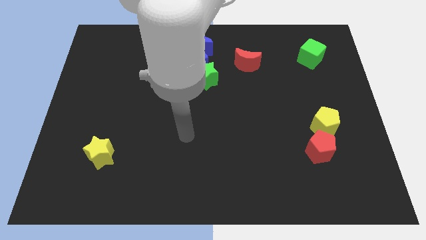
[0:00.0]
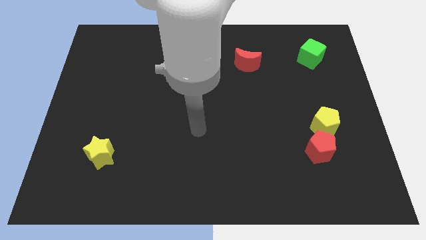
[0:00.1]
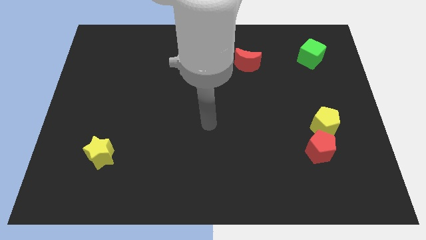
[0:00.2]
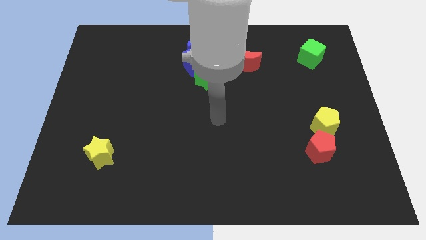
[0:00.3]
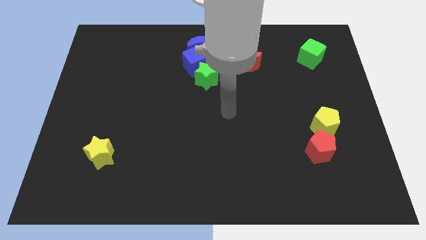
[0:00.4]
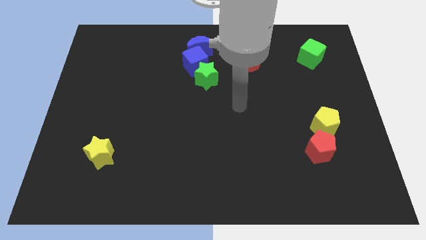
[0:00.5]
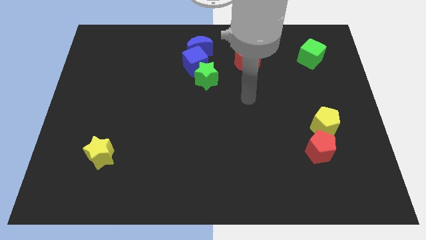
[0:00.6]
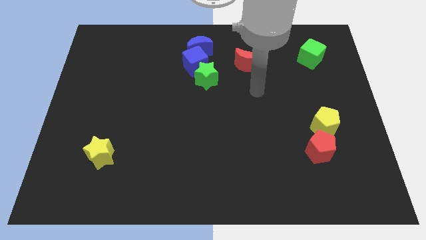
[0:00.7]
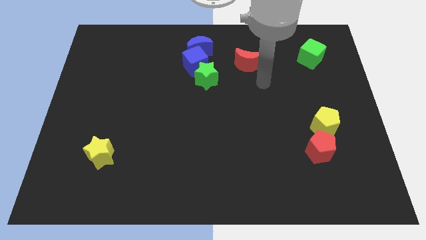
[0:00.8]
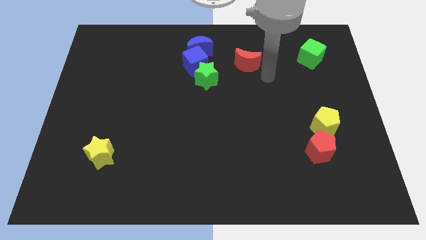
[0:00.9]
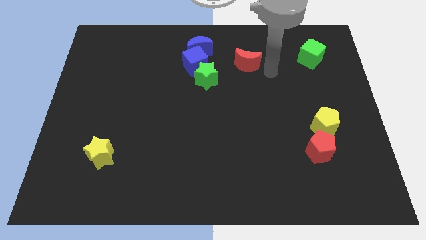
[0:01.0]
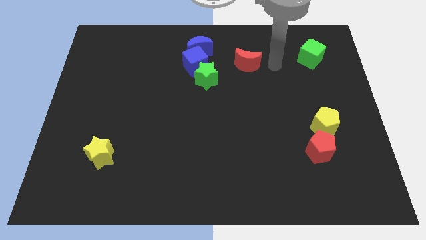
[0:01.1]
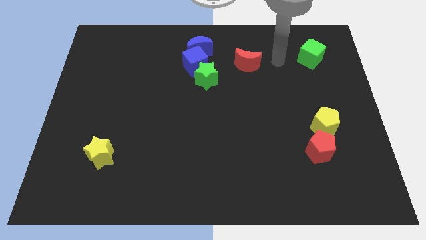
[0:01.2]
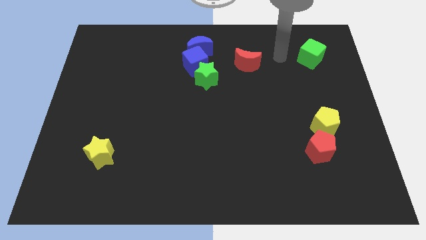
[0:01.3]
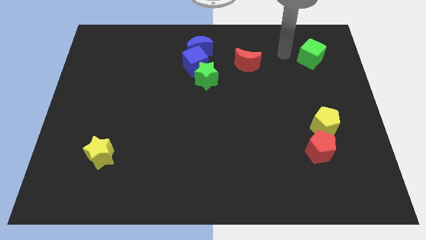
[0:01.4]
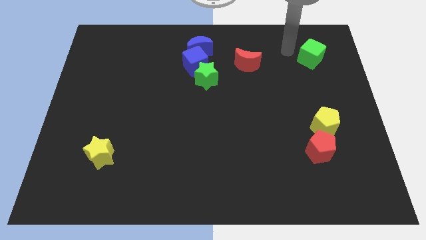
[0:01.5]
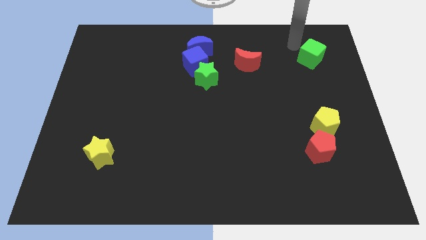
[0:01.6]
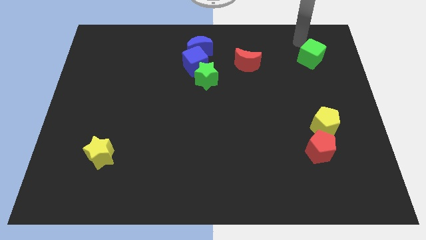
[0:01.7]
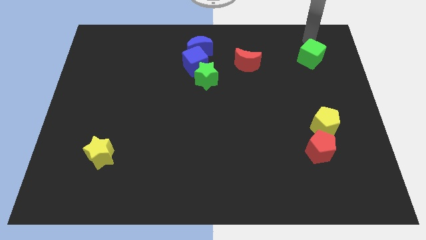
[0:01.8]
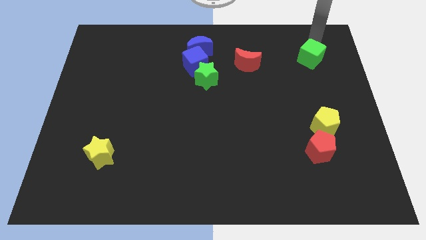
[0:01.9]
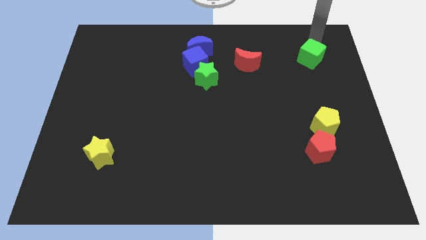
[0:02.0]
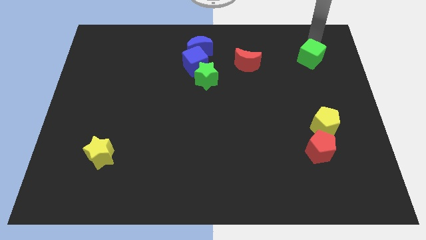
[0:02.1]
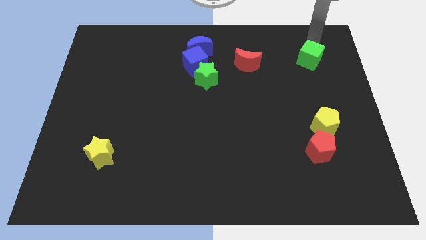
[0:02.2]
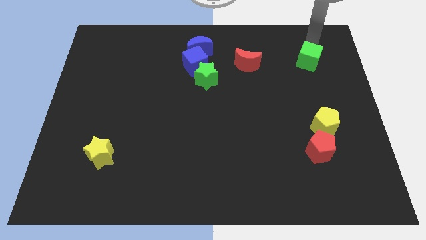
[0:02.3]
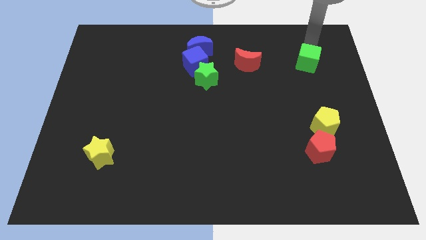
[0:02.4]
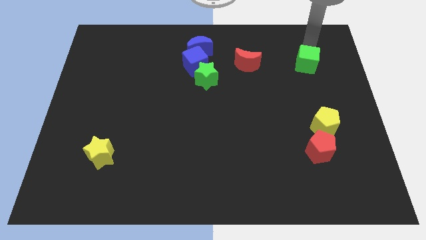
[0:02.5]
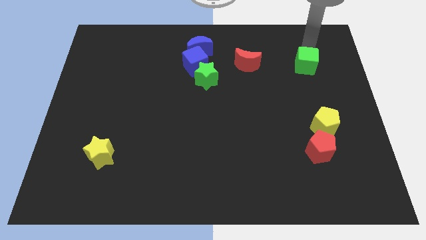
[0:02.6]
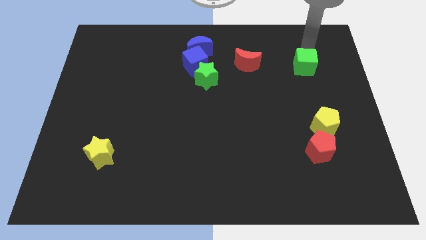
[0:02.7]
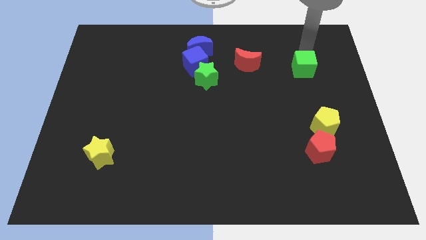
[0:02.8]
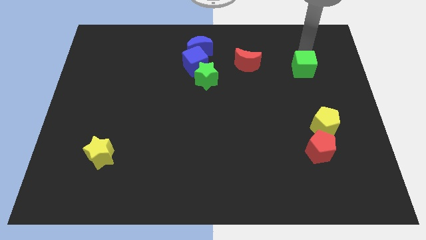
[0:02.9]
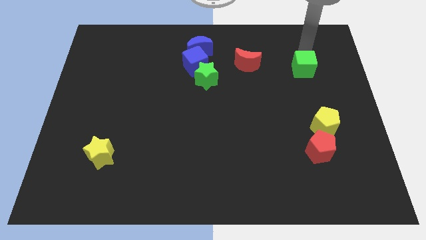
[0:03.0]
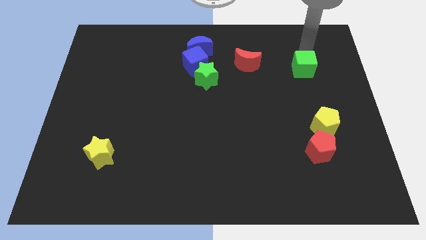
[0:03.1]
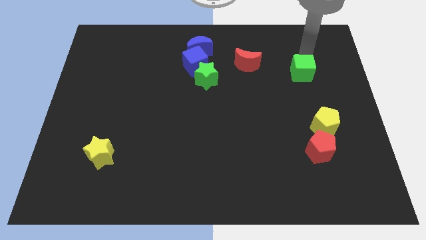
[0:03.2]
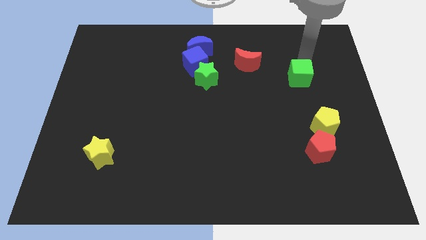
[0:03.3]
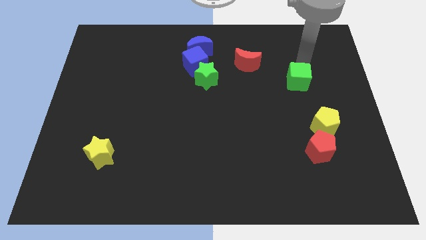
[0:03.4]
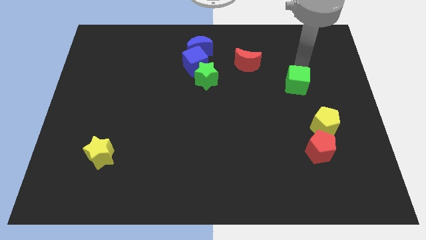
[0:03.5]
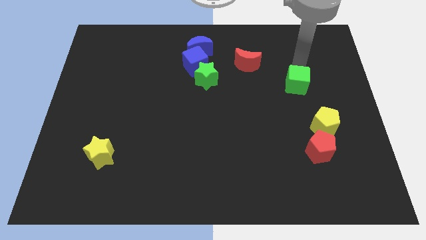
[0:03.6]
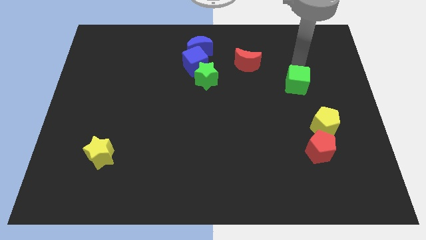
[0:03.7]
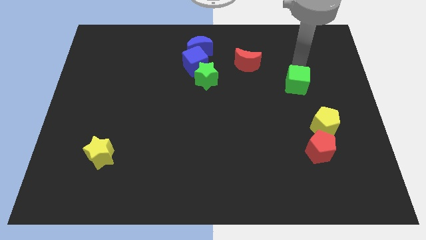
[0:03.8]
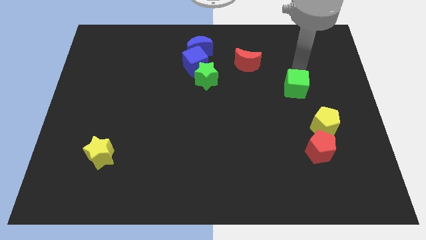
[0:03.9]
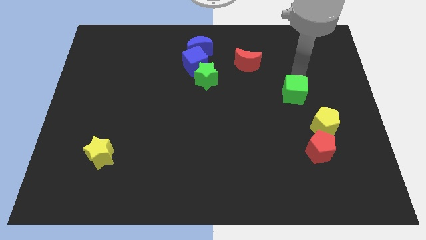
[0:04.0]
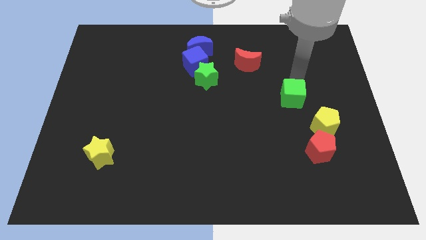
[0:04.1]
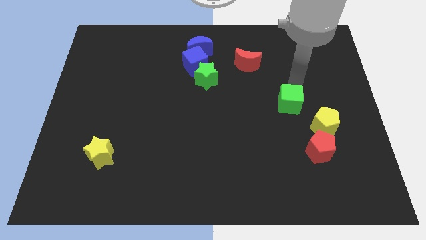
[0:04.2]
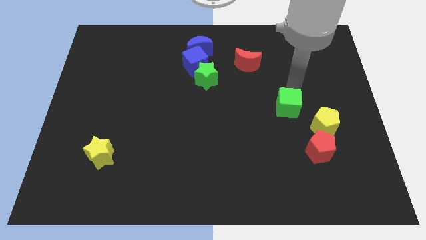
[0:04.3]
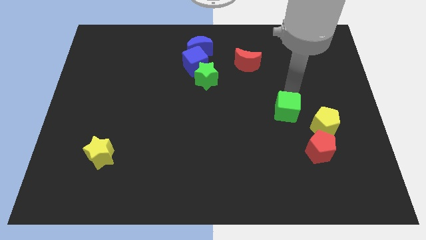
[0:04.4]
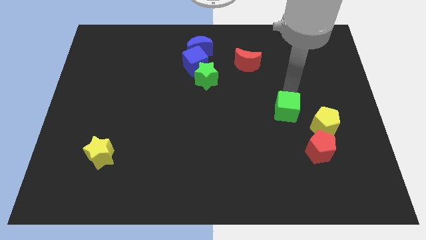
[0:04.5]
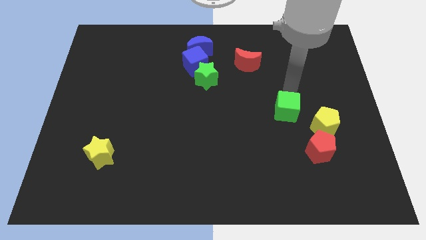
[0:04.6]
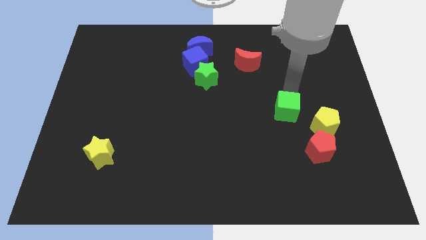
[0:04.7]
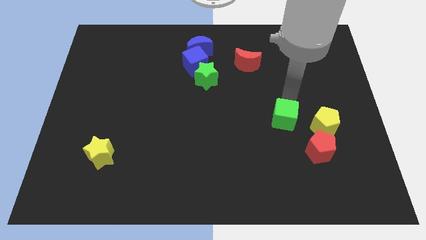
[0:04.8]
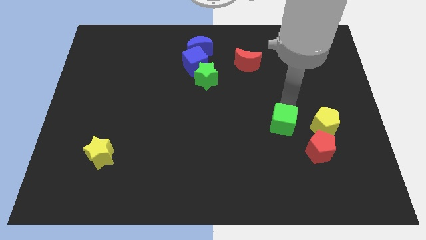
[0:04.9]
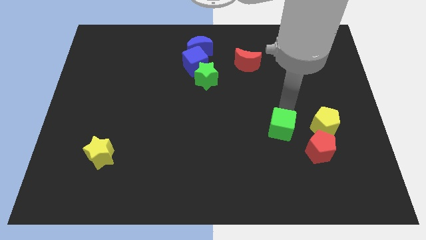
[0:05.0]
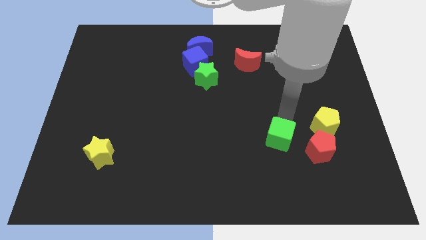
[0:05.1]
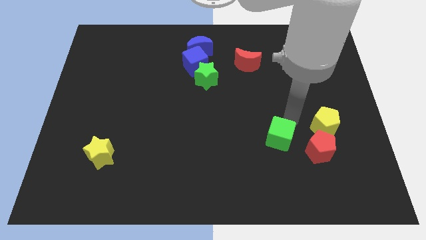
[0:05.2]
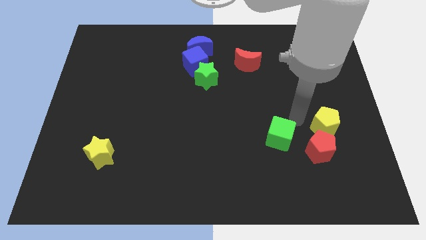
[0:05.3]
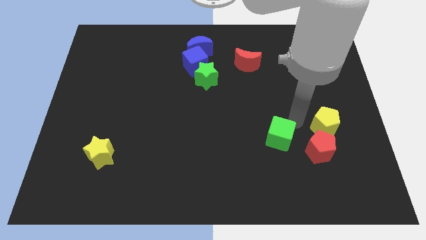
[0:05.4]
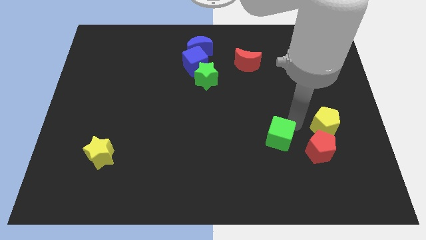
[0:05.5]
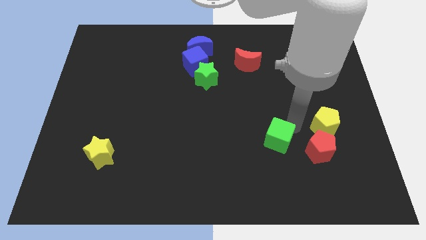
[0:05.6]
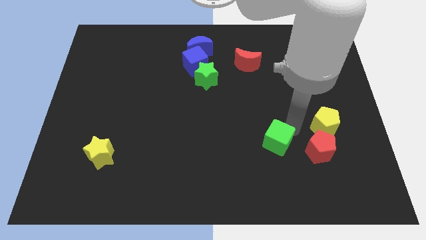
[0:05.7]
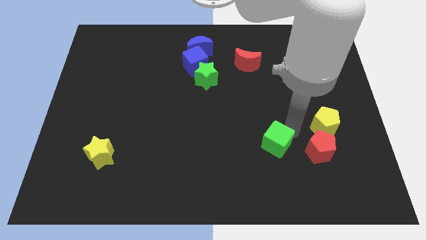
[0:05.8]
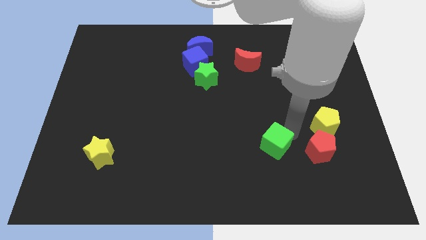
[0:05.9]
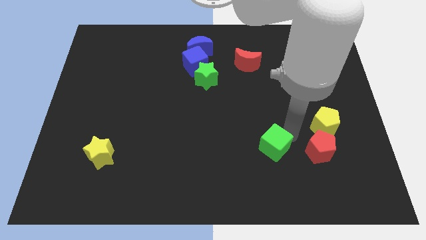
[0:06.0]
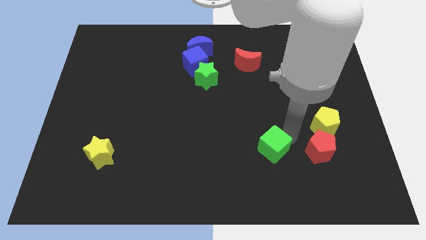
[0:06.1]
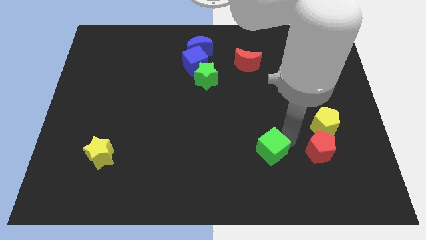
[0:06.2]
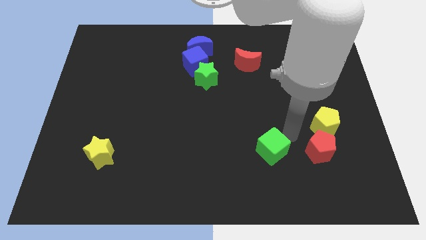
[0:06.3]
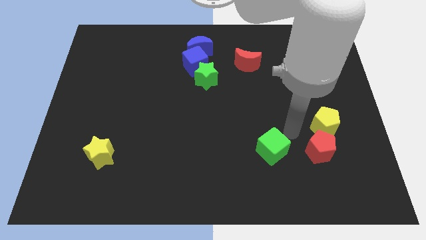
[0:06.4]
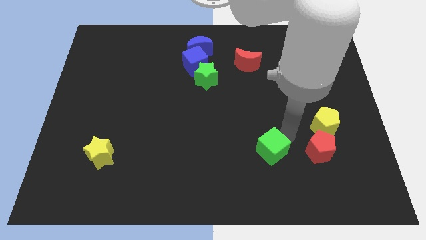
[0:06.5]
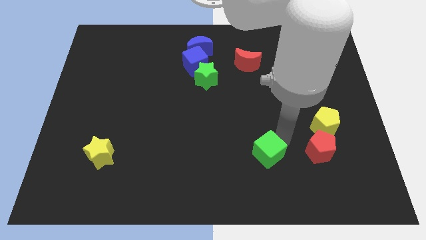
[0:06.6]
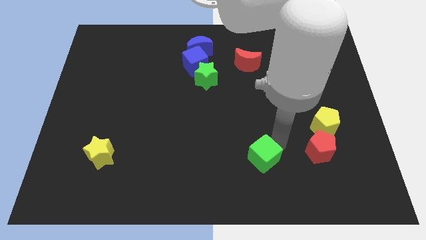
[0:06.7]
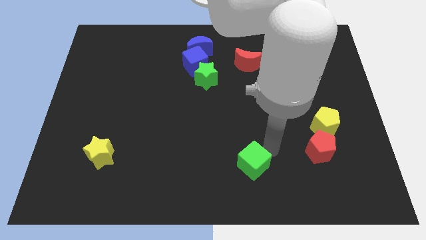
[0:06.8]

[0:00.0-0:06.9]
put the green cube to the bottom side

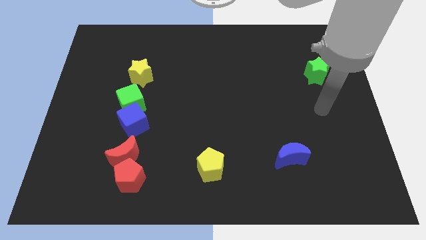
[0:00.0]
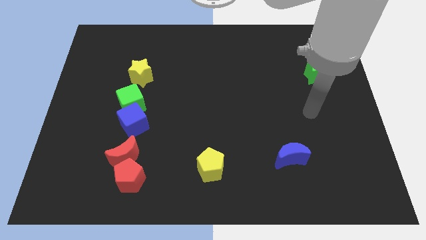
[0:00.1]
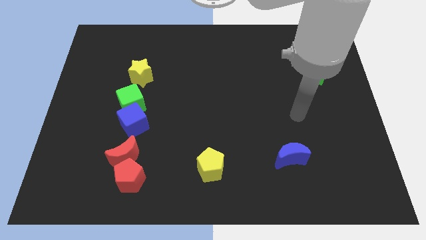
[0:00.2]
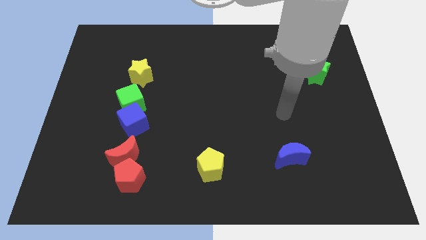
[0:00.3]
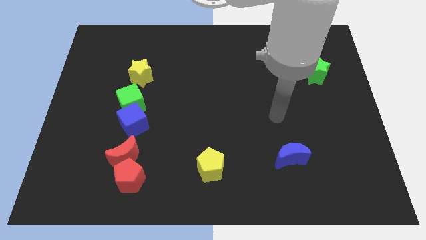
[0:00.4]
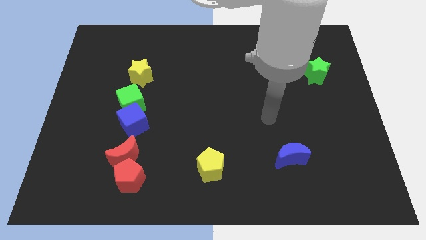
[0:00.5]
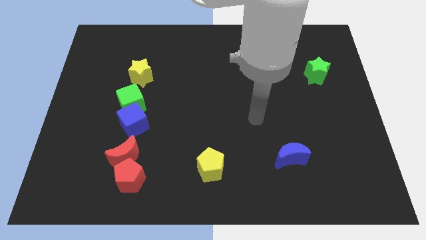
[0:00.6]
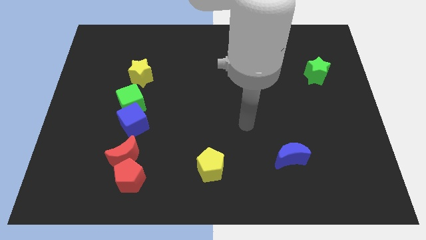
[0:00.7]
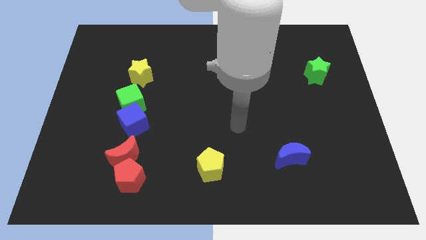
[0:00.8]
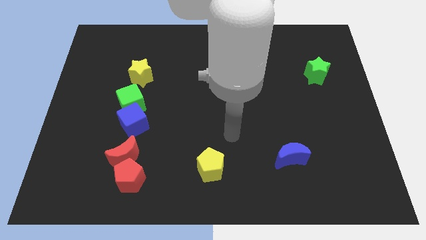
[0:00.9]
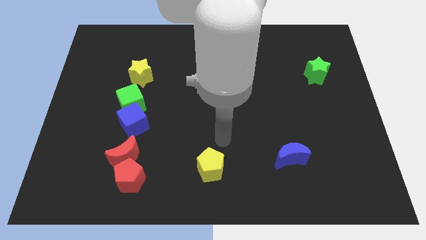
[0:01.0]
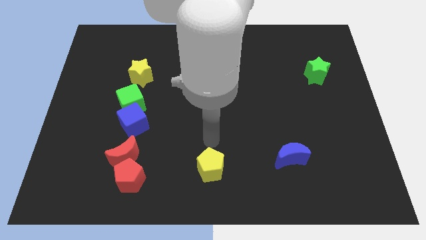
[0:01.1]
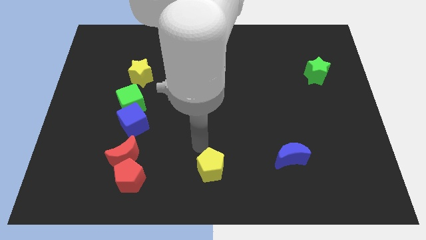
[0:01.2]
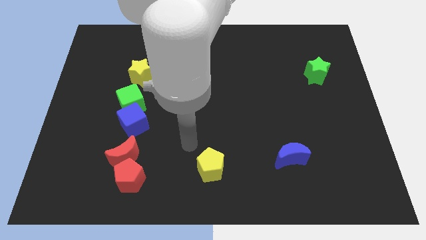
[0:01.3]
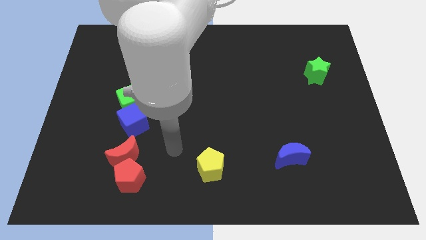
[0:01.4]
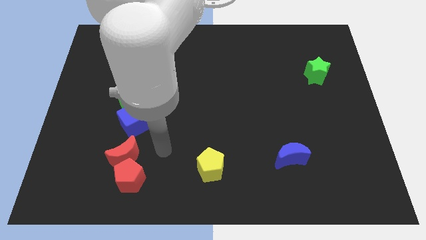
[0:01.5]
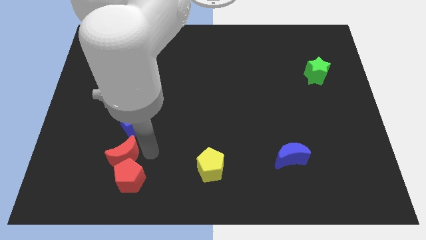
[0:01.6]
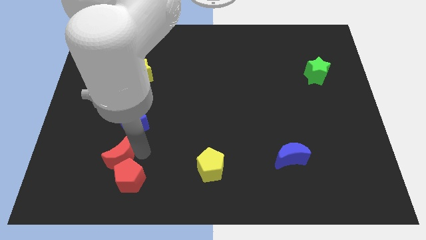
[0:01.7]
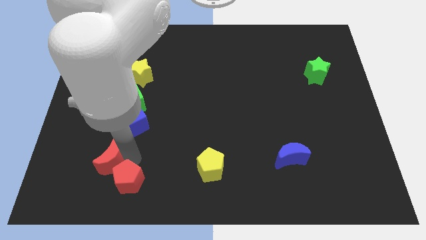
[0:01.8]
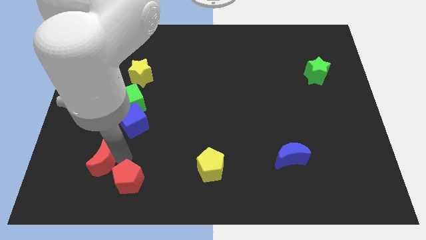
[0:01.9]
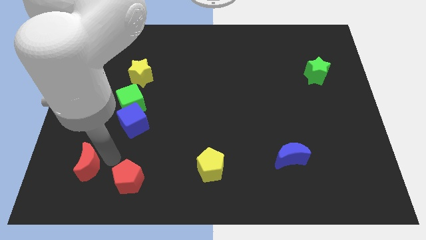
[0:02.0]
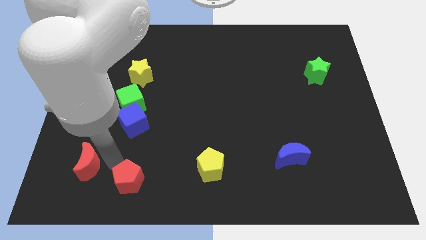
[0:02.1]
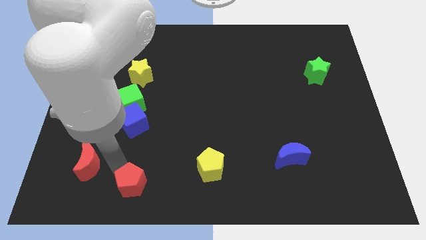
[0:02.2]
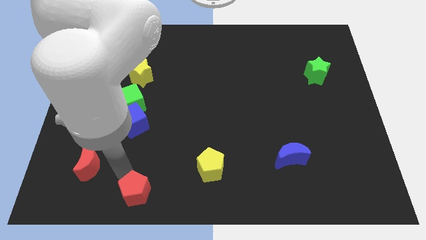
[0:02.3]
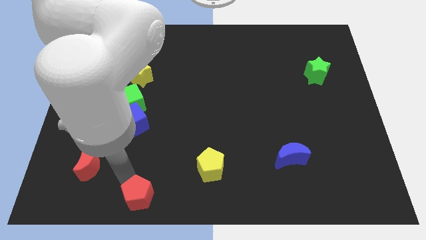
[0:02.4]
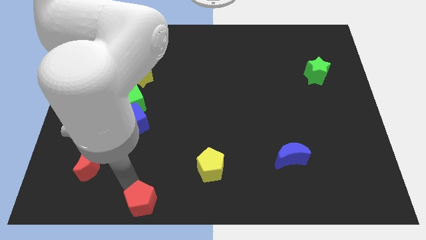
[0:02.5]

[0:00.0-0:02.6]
slide the red pentagon to the bottom
